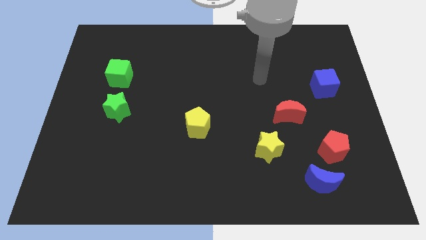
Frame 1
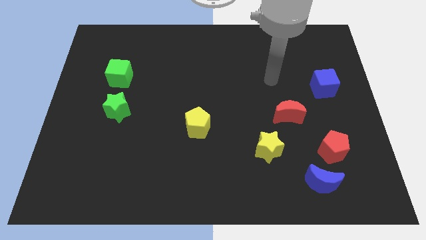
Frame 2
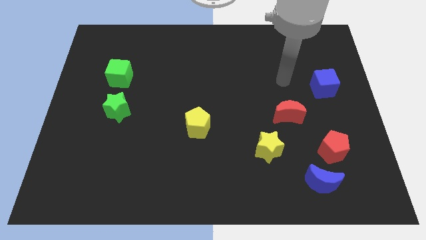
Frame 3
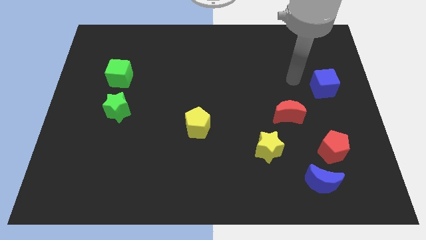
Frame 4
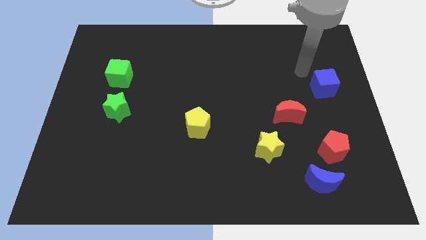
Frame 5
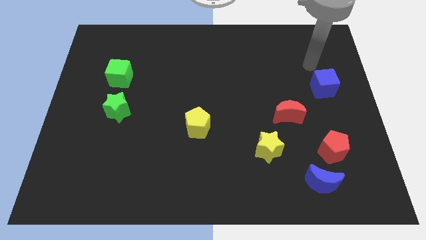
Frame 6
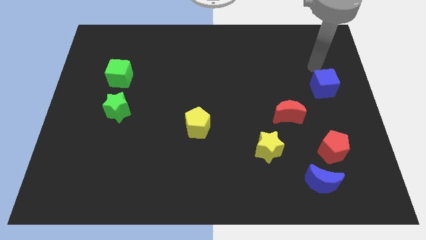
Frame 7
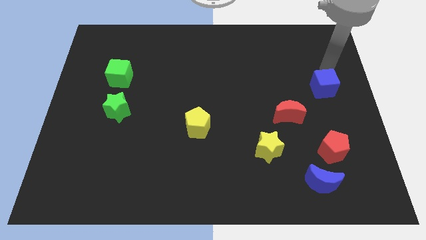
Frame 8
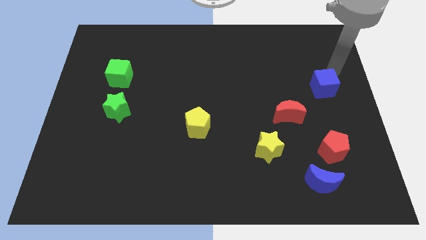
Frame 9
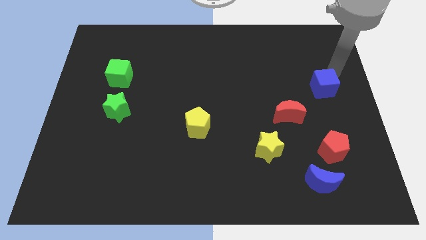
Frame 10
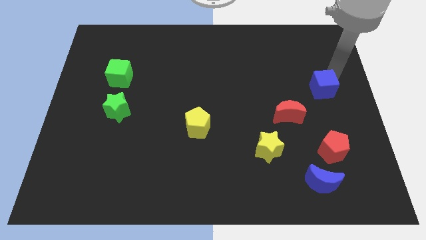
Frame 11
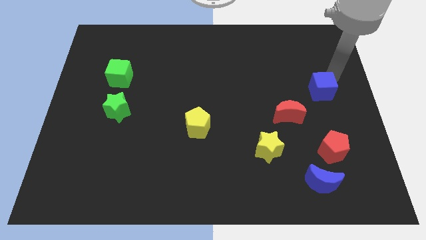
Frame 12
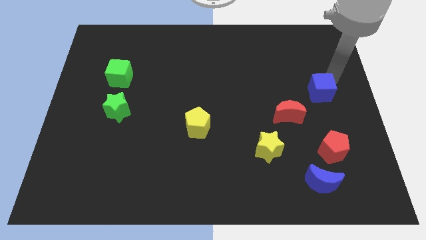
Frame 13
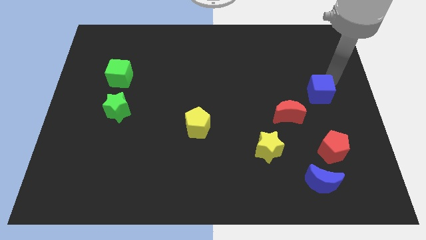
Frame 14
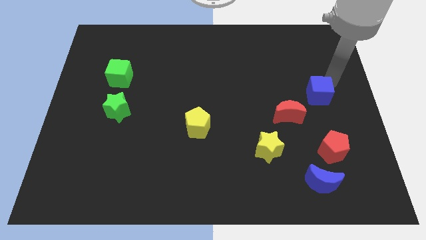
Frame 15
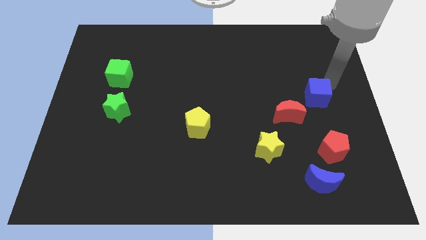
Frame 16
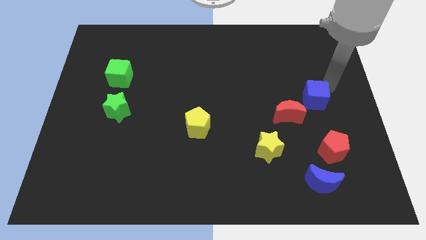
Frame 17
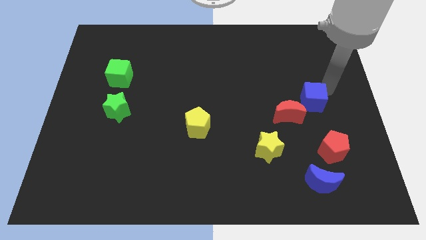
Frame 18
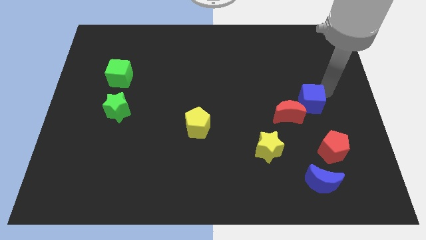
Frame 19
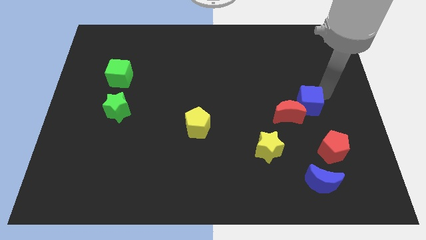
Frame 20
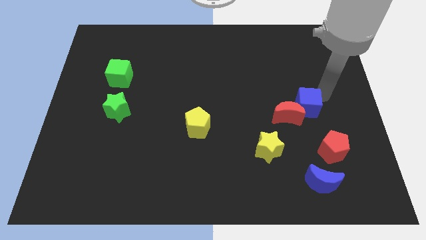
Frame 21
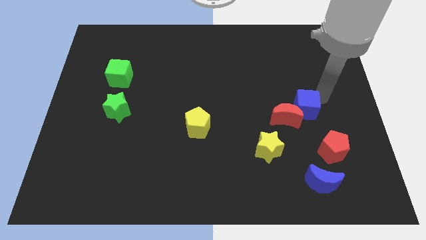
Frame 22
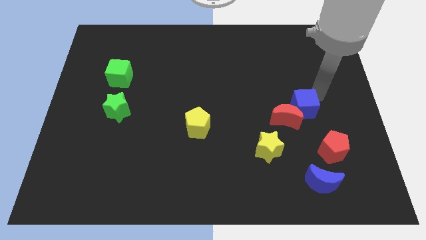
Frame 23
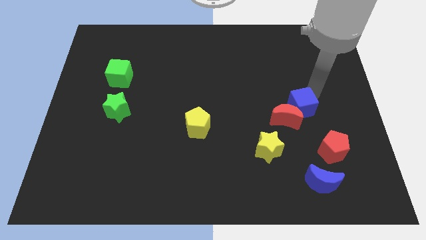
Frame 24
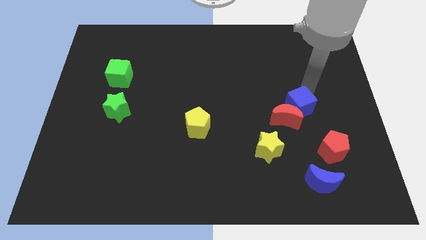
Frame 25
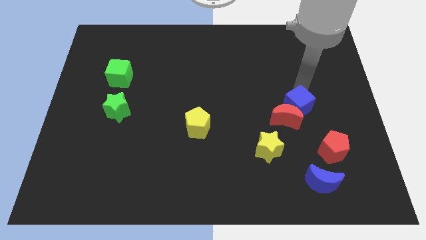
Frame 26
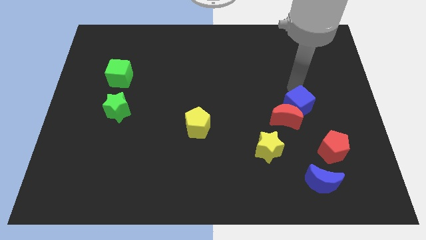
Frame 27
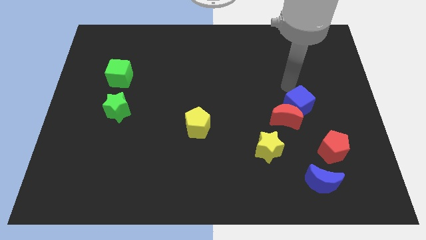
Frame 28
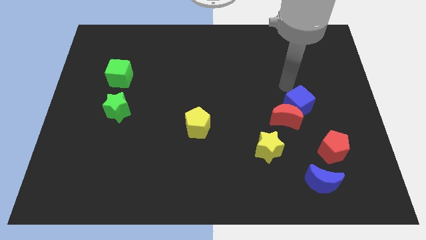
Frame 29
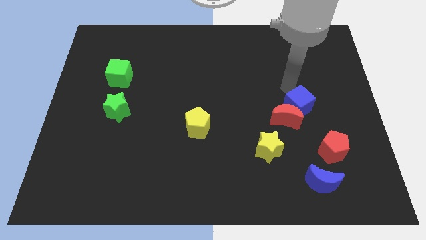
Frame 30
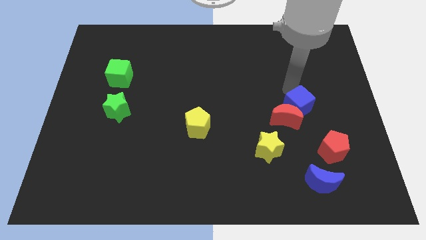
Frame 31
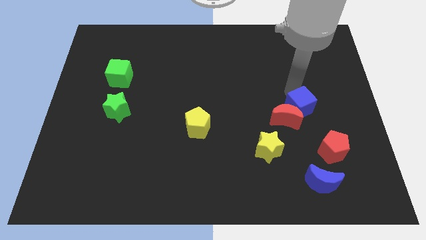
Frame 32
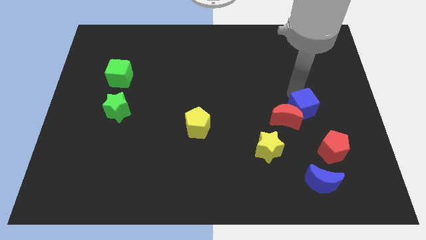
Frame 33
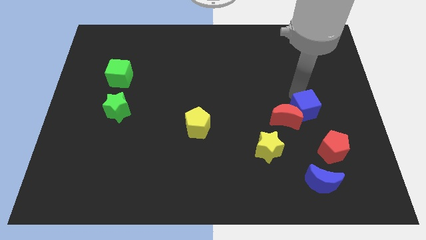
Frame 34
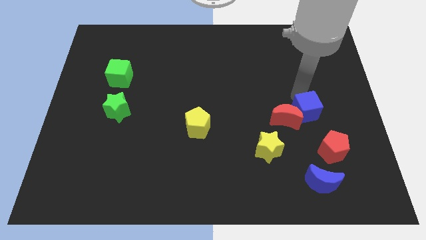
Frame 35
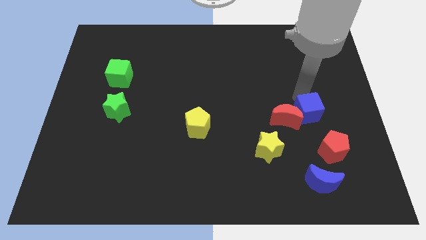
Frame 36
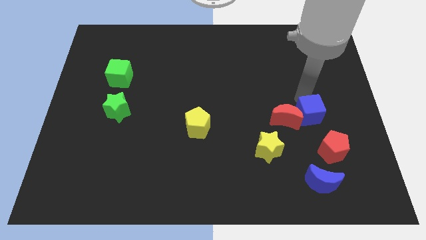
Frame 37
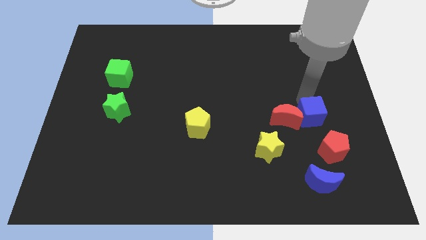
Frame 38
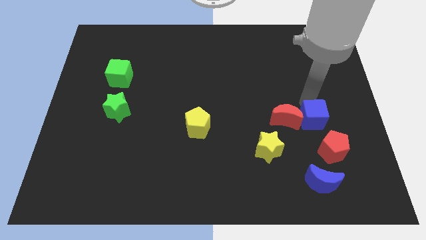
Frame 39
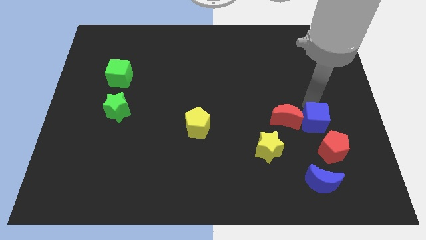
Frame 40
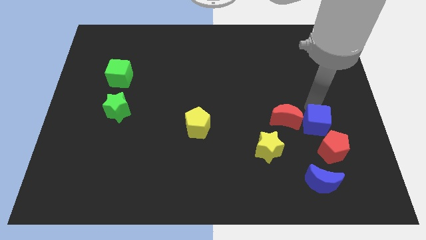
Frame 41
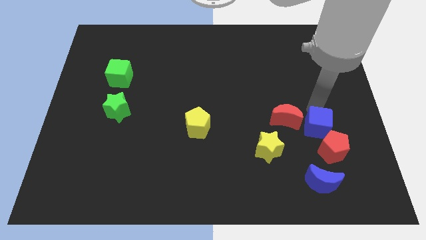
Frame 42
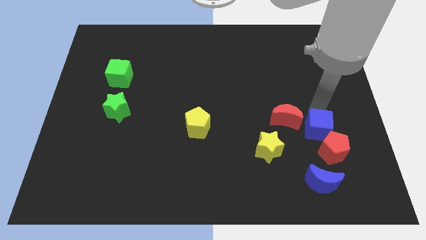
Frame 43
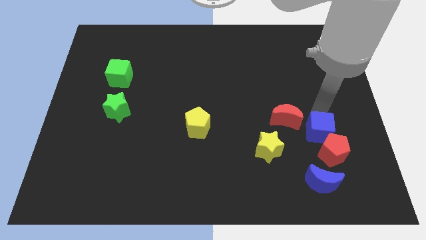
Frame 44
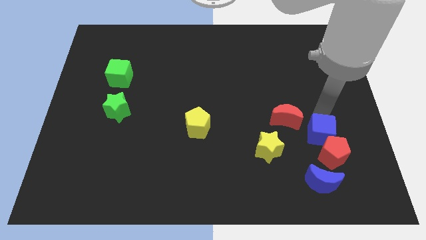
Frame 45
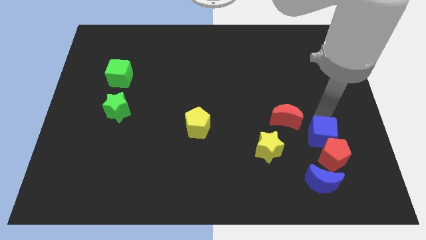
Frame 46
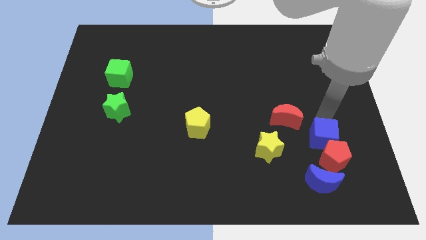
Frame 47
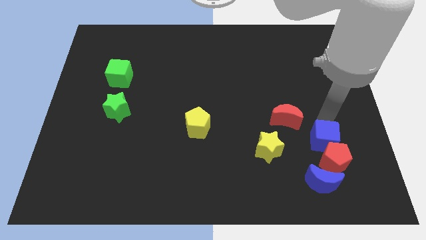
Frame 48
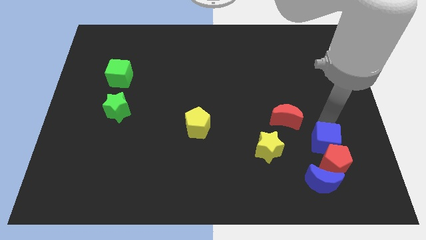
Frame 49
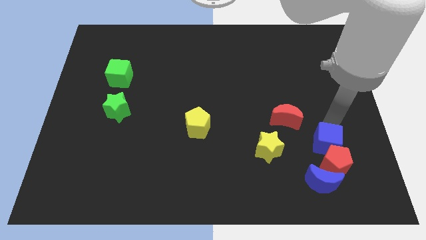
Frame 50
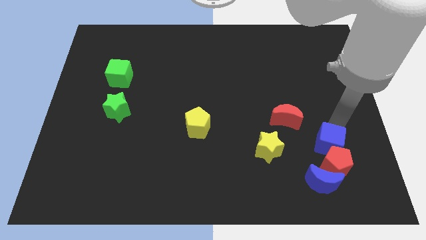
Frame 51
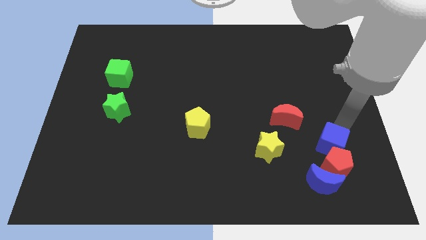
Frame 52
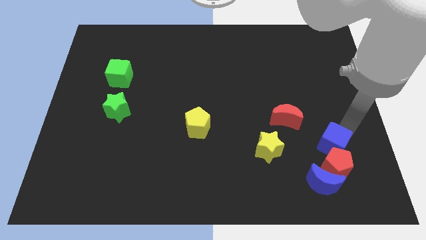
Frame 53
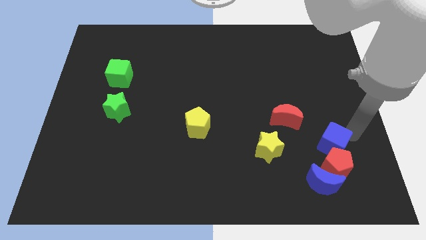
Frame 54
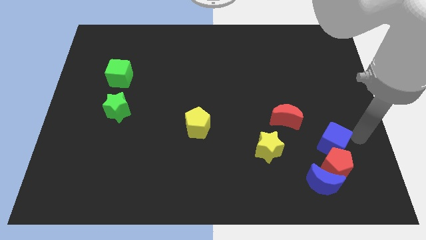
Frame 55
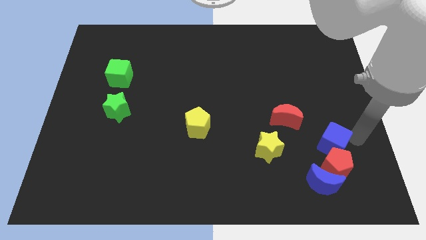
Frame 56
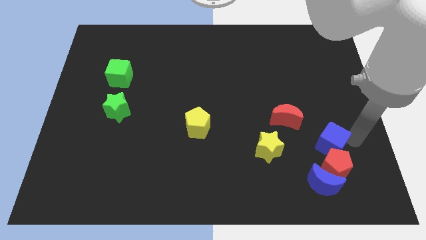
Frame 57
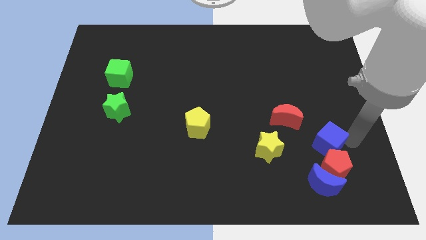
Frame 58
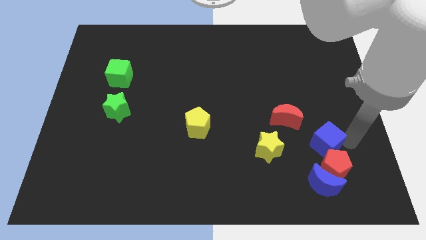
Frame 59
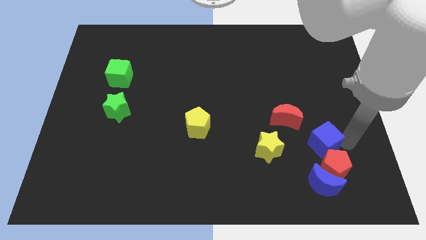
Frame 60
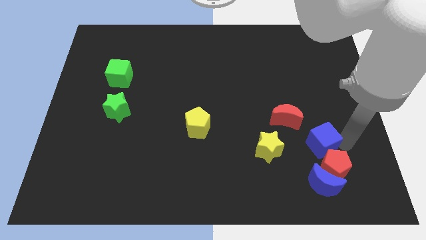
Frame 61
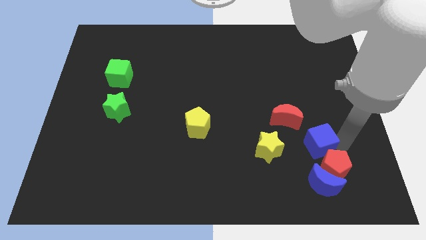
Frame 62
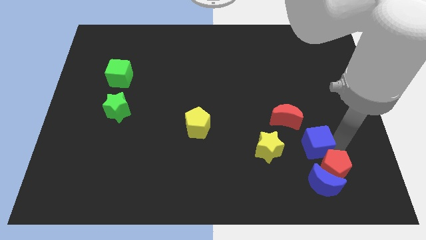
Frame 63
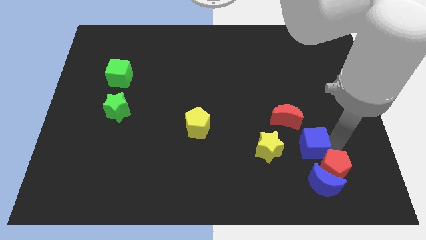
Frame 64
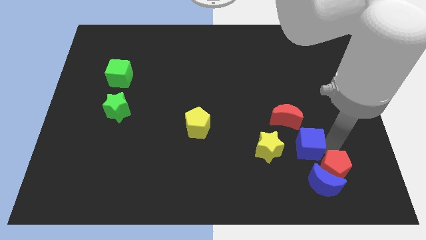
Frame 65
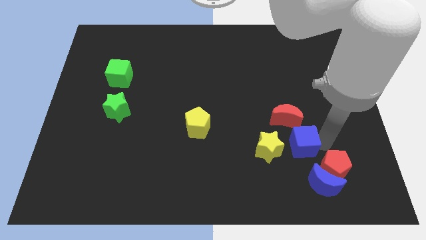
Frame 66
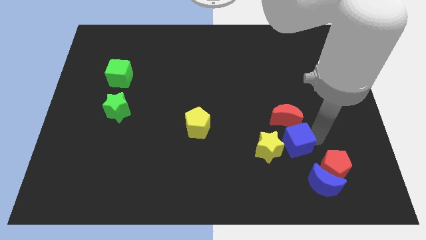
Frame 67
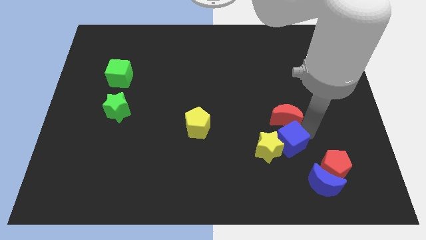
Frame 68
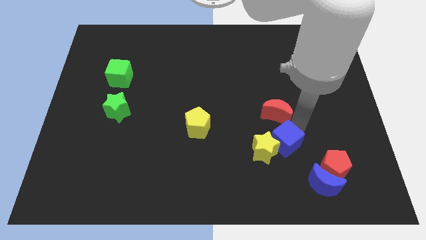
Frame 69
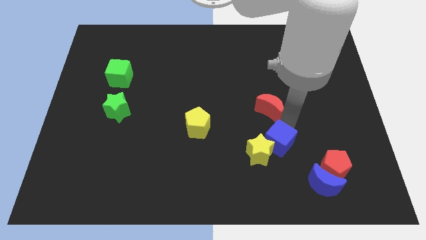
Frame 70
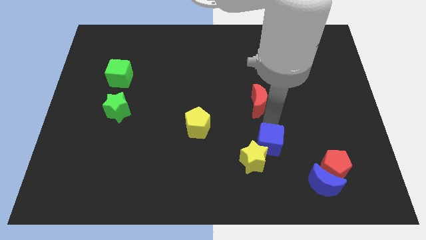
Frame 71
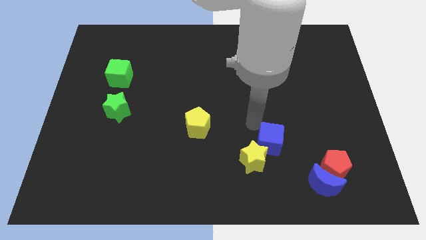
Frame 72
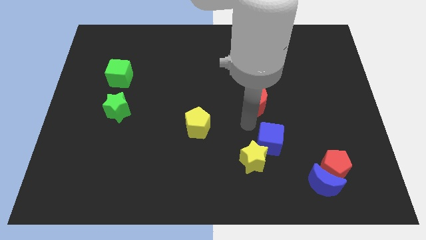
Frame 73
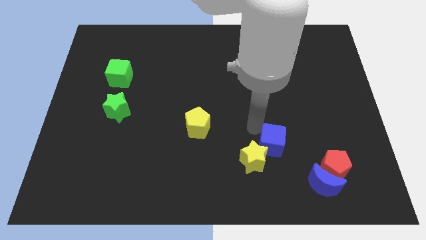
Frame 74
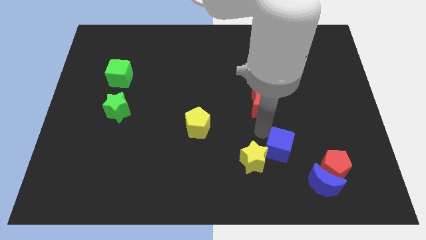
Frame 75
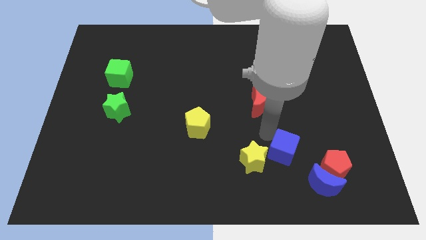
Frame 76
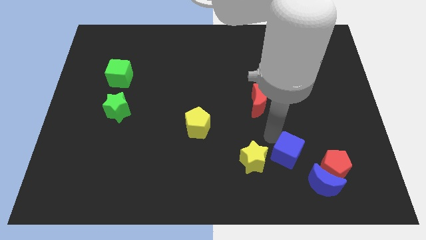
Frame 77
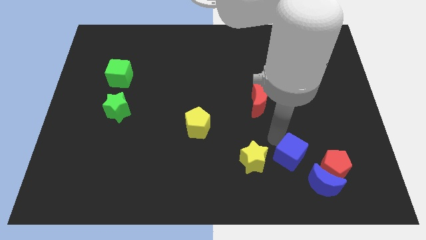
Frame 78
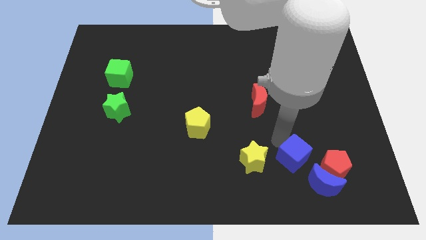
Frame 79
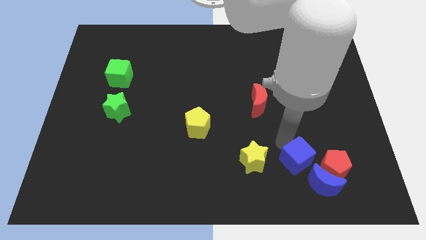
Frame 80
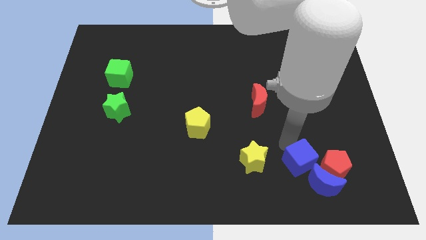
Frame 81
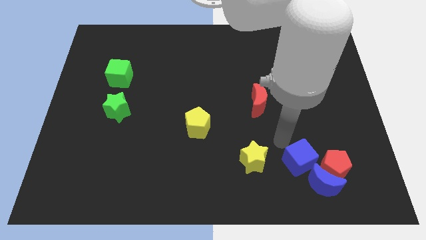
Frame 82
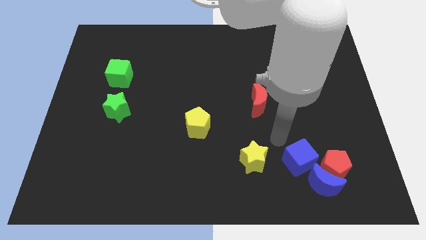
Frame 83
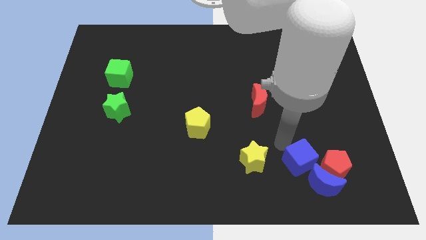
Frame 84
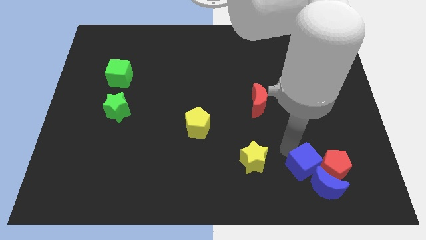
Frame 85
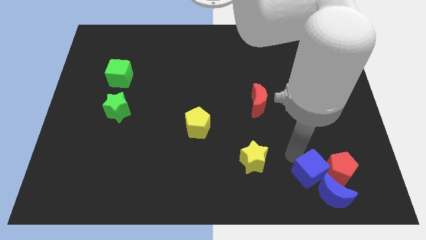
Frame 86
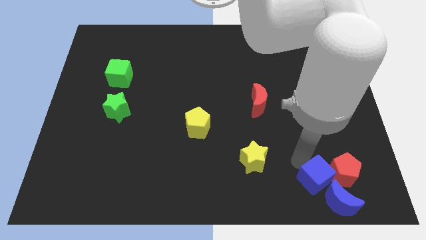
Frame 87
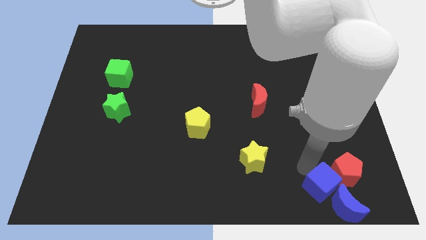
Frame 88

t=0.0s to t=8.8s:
move the blue cube close to the blue moon
